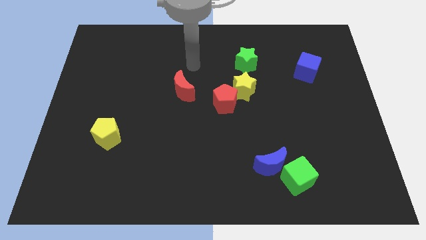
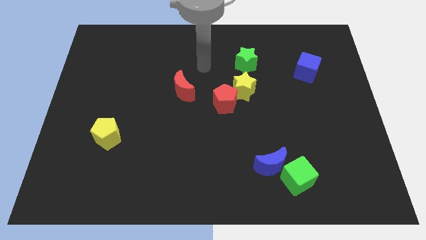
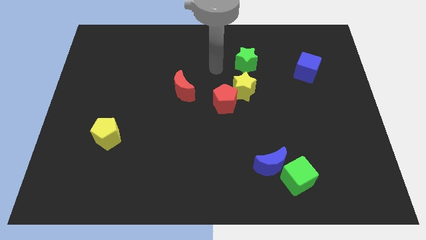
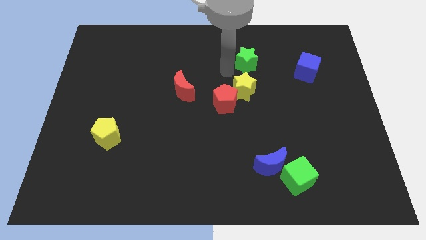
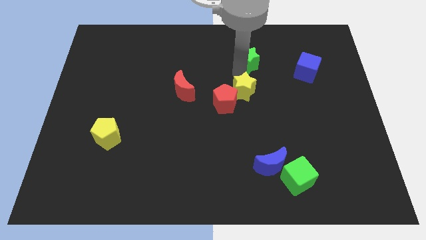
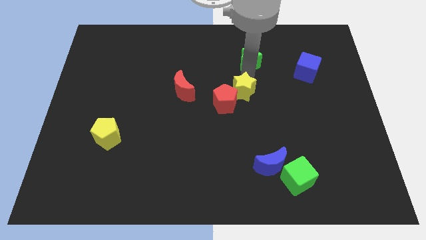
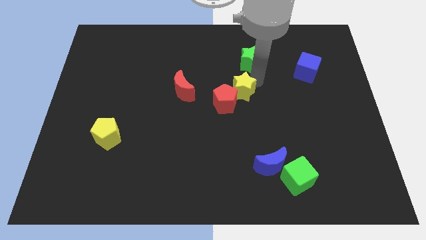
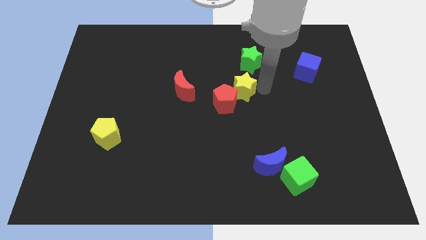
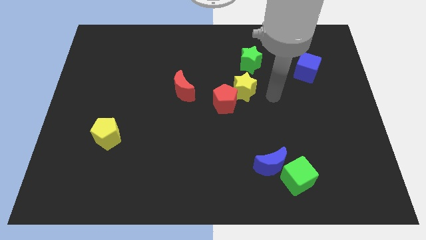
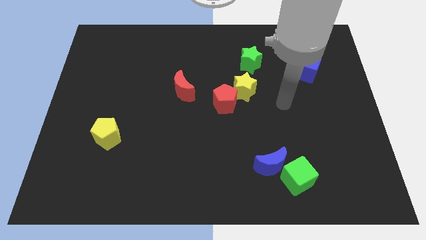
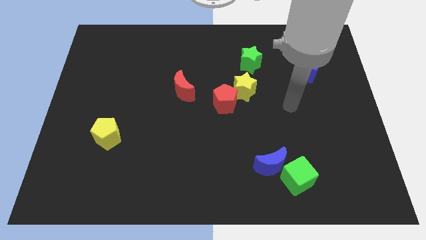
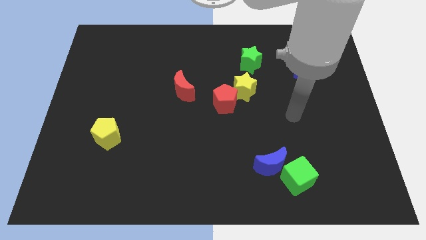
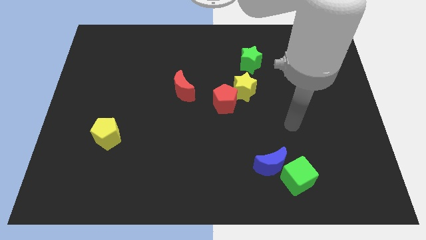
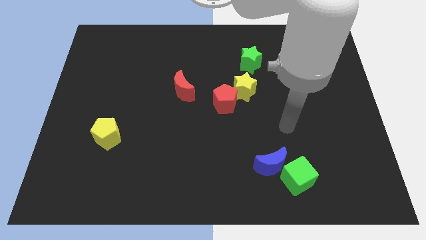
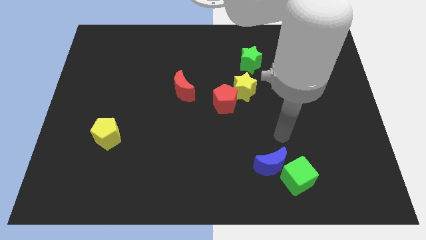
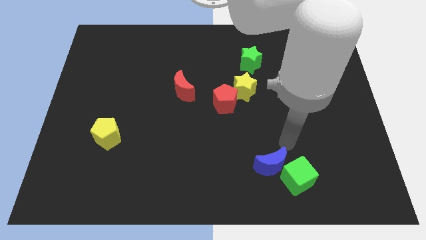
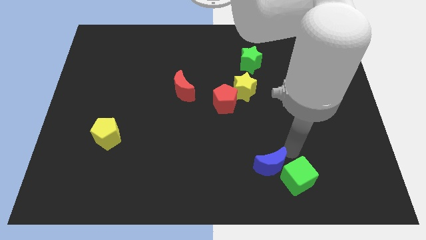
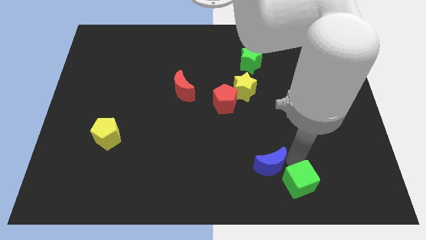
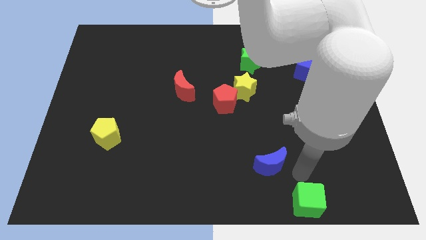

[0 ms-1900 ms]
separate the blue moon from the green cube

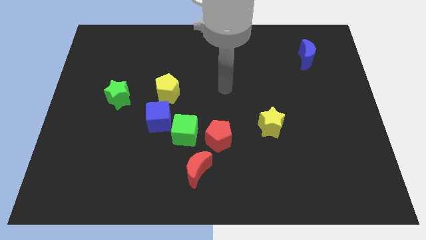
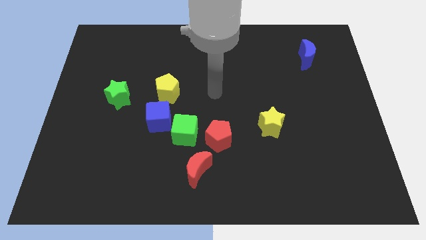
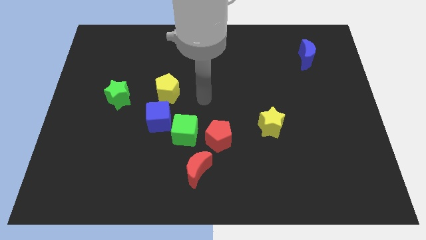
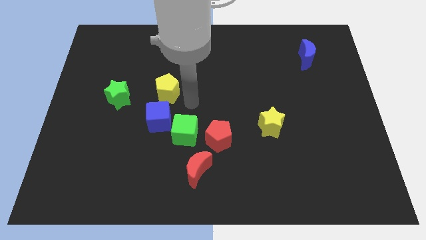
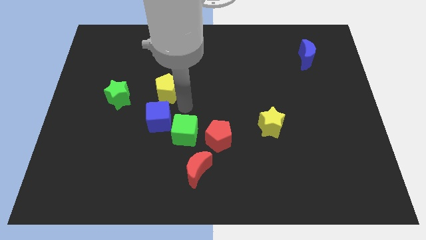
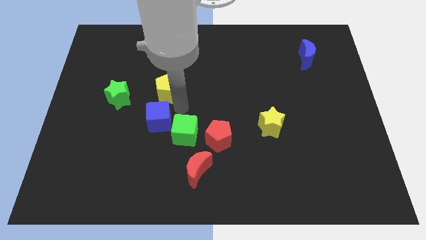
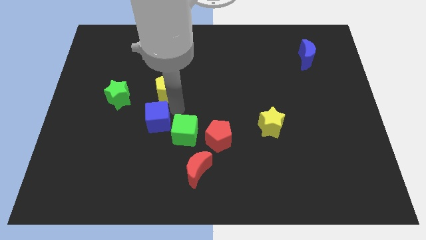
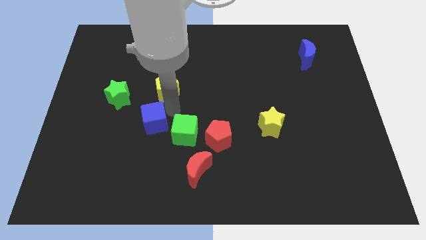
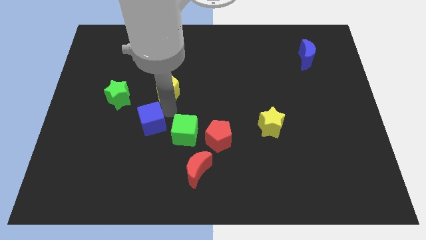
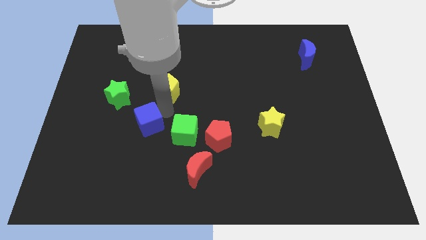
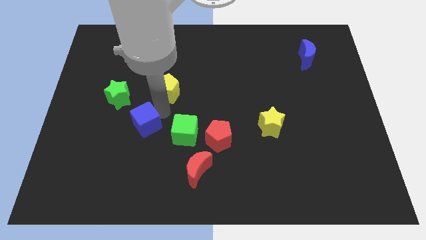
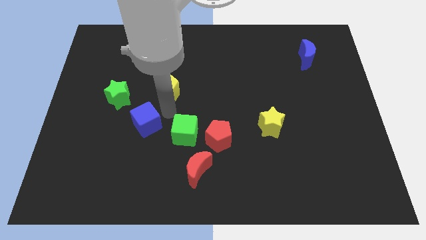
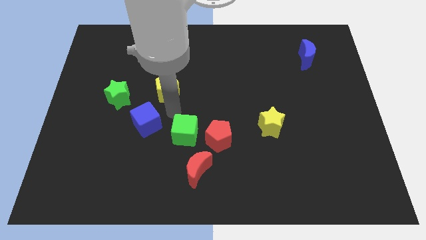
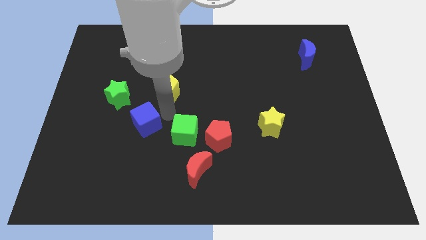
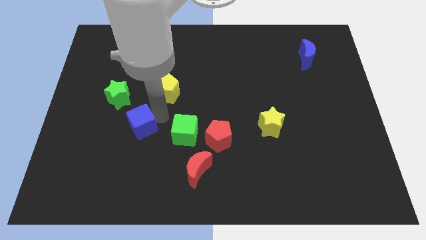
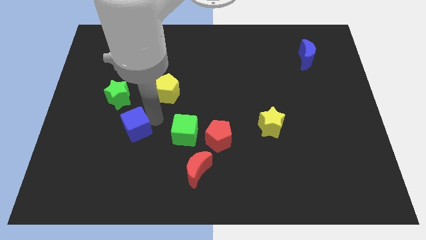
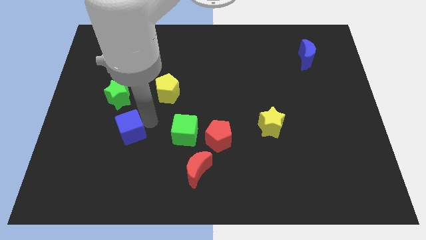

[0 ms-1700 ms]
pull the blue cube apart from the green cube and yellow pentagon

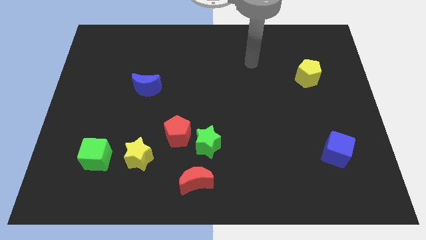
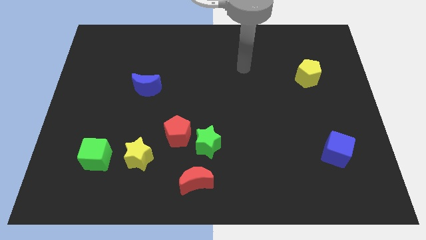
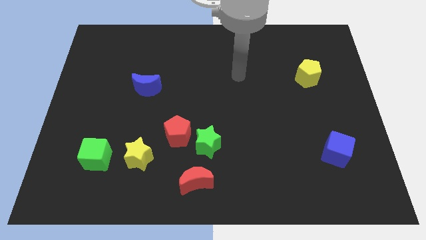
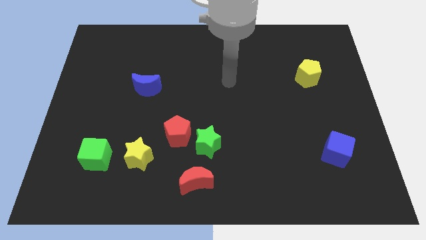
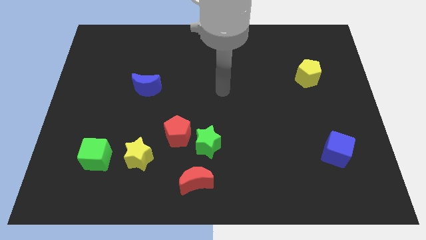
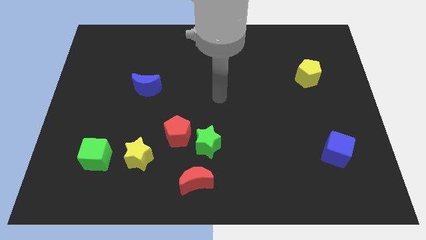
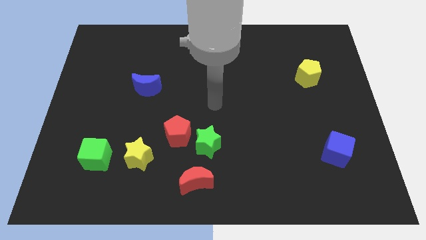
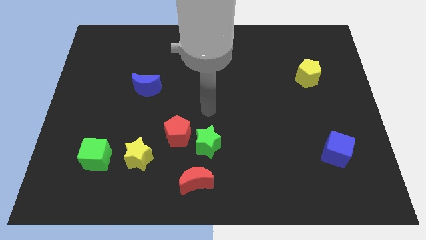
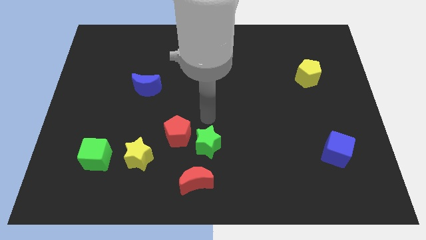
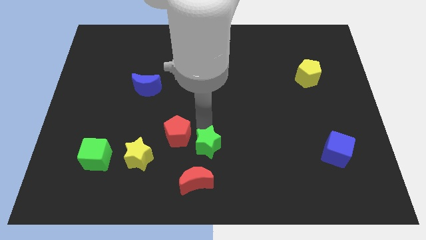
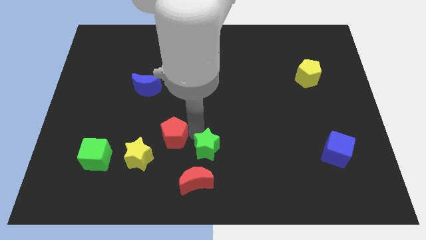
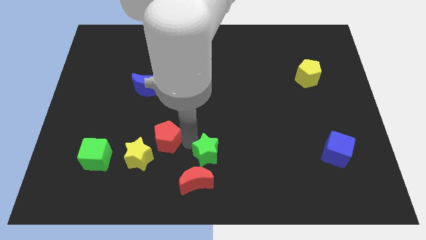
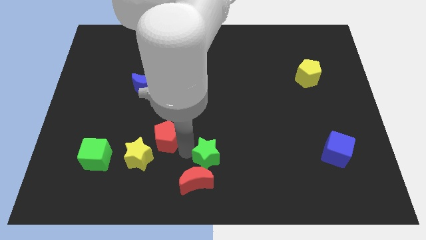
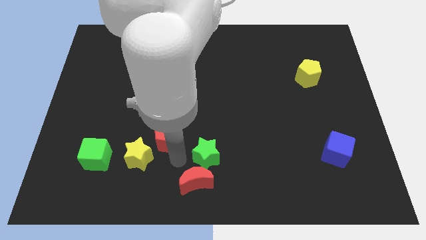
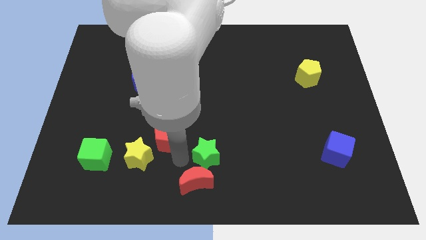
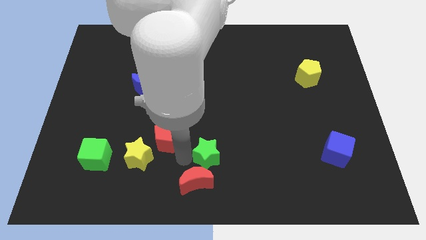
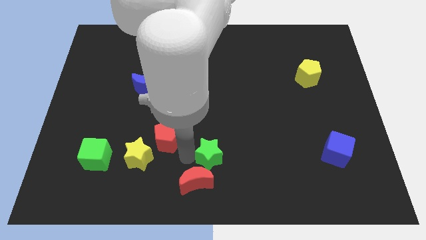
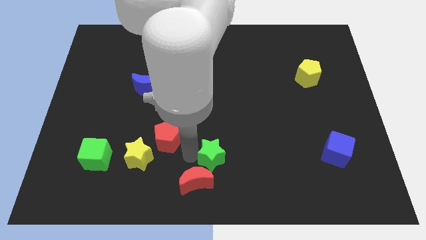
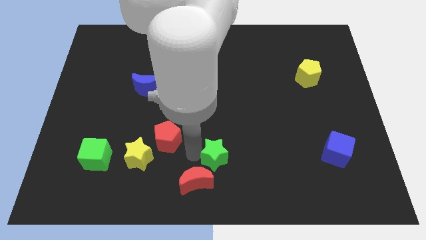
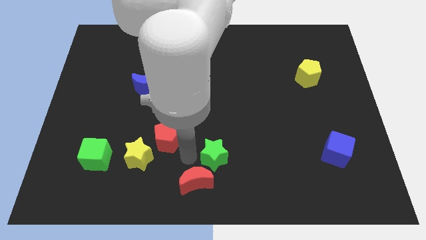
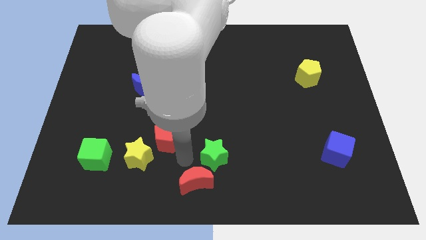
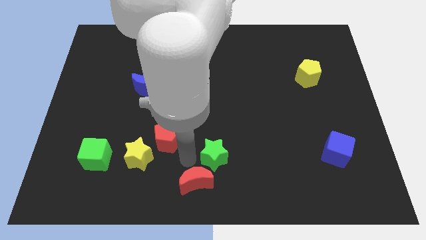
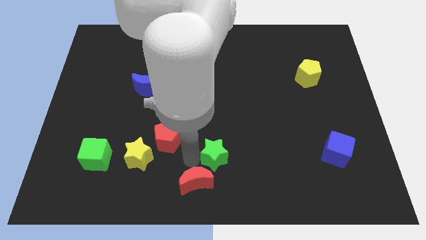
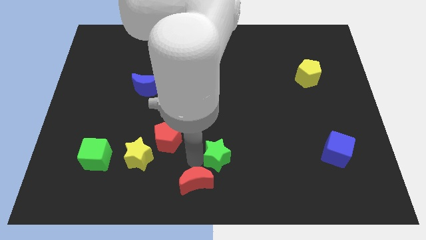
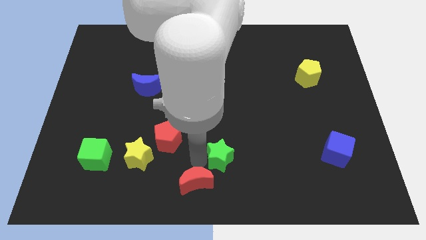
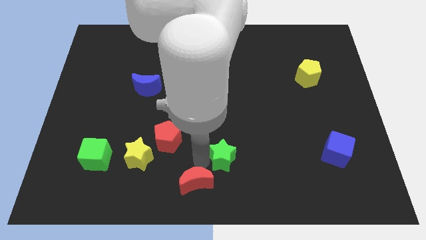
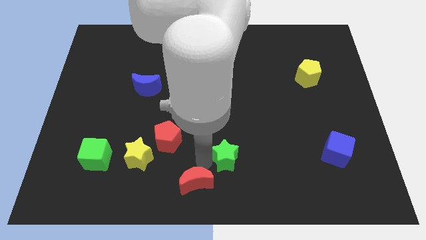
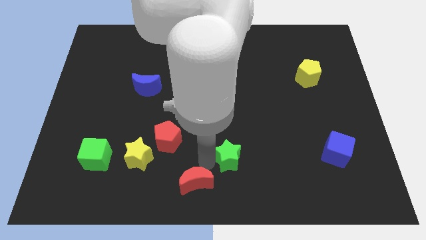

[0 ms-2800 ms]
pull the green star apart from the red pentagon and red moon

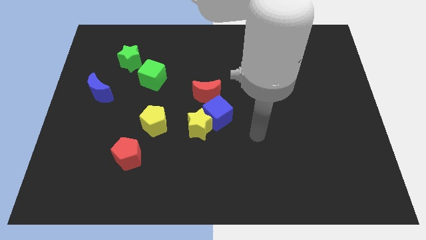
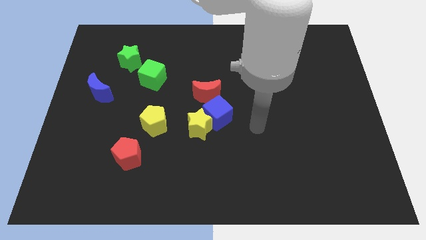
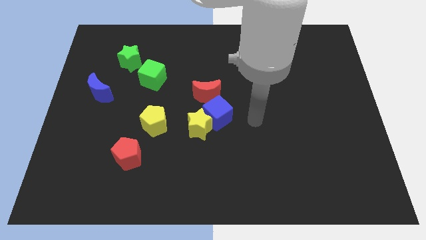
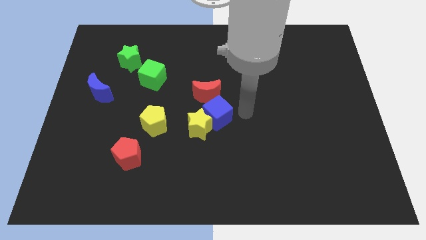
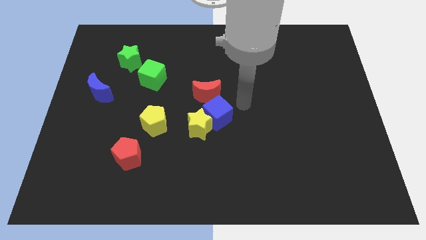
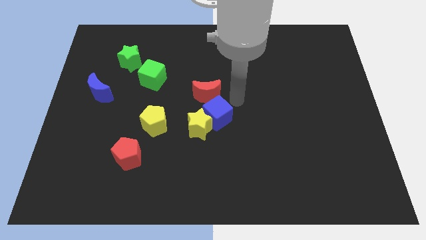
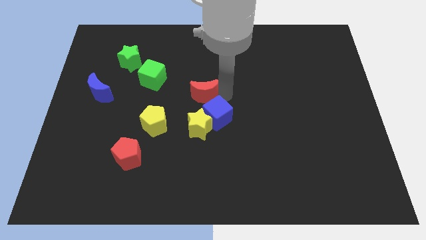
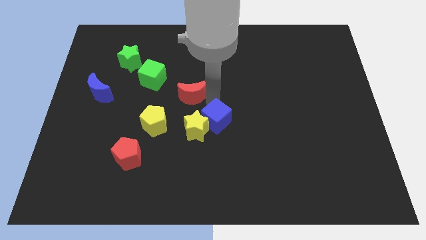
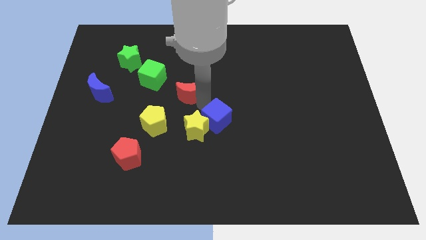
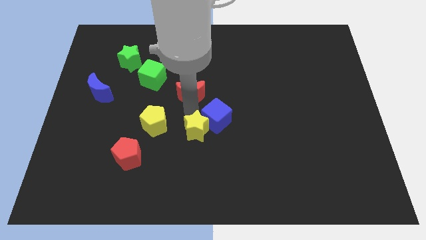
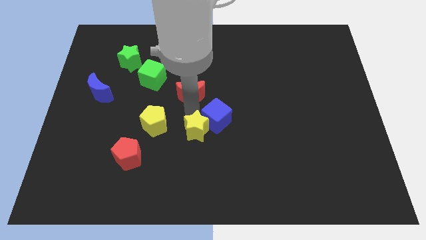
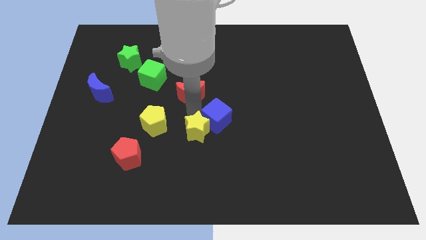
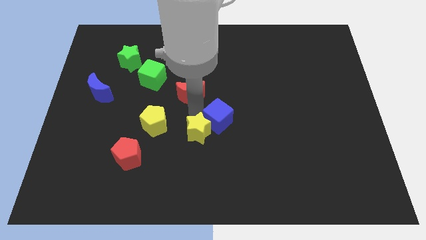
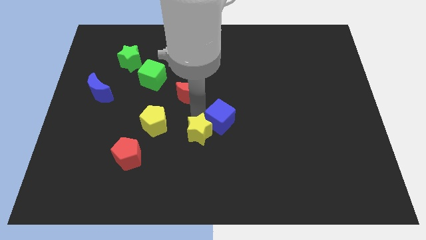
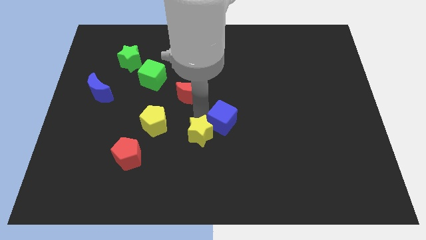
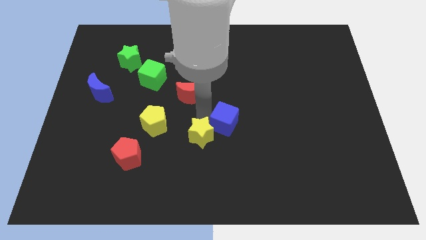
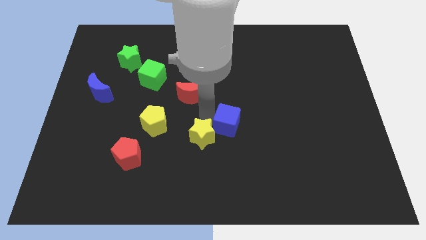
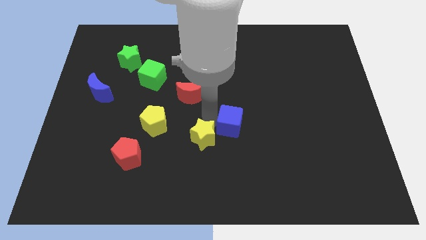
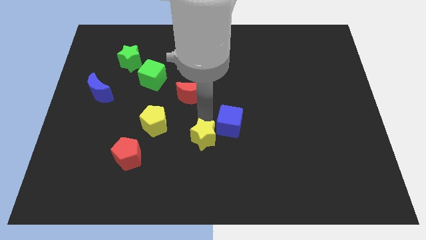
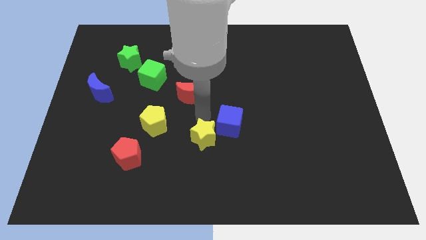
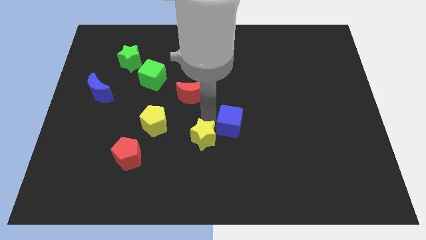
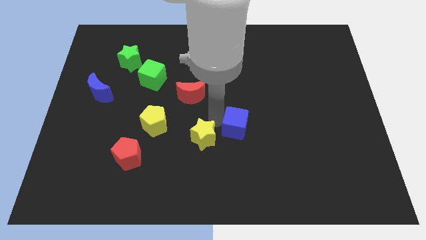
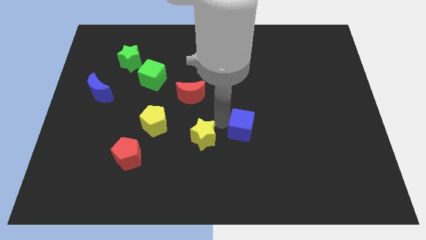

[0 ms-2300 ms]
pull the blue cube apart from the yellow star and red moon

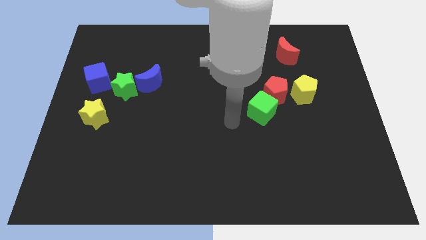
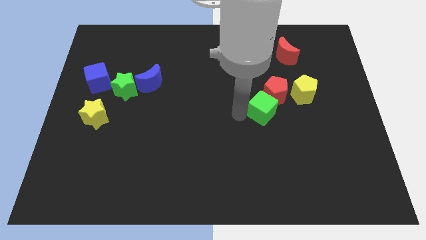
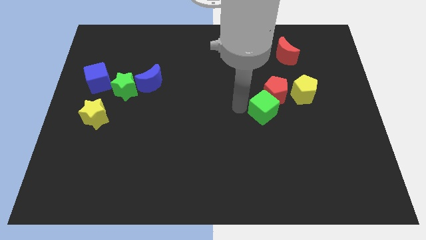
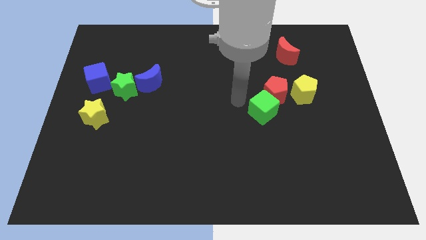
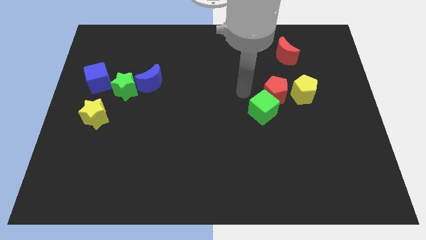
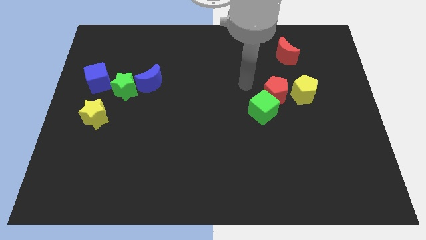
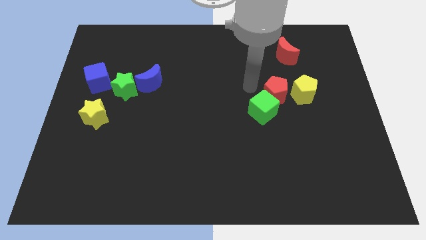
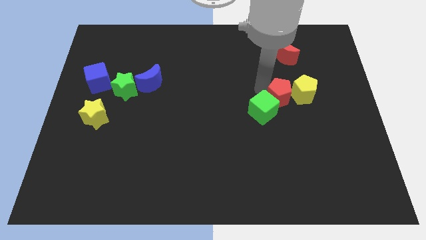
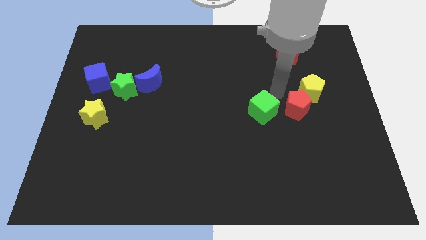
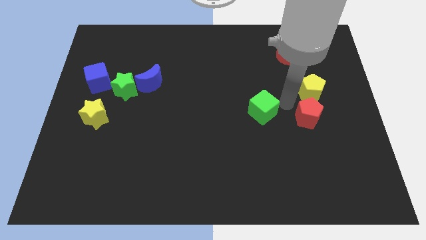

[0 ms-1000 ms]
move the green cube away from the red pentagon
